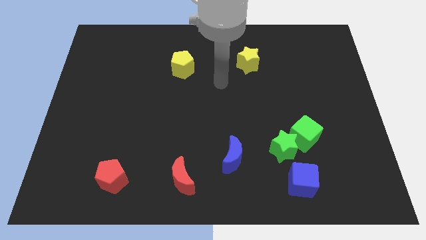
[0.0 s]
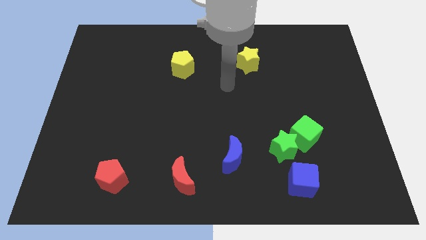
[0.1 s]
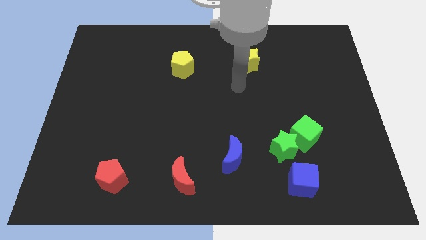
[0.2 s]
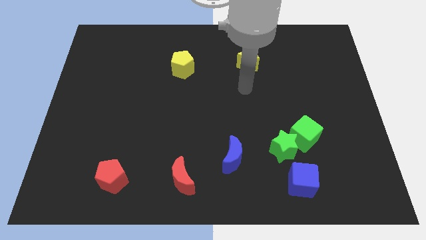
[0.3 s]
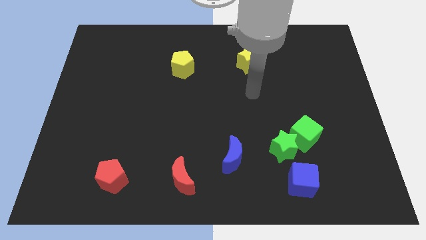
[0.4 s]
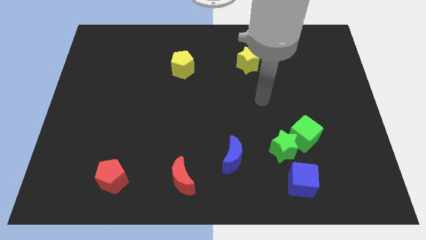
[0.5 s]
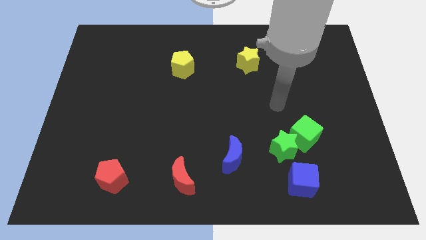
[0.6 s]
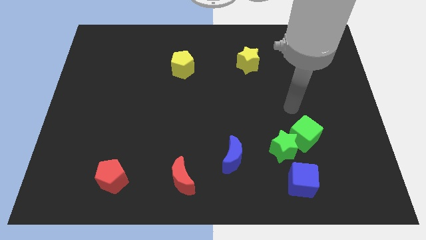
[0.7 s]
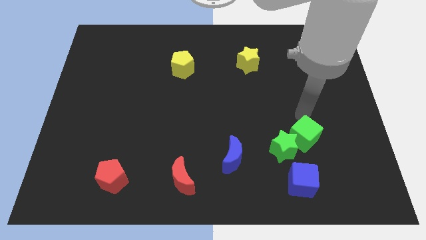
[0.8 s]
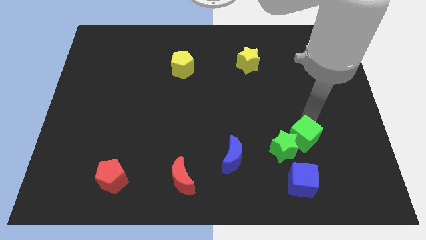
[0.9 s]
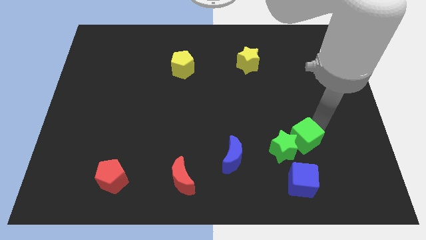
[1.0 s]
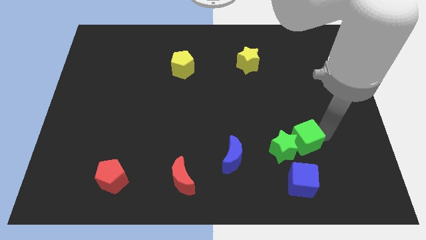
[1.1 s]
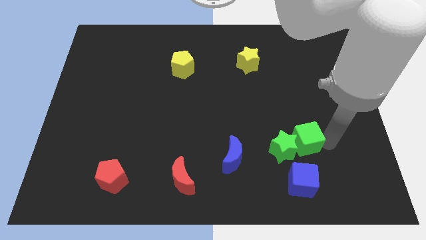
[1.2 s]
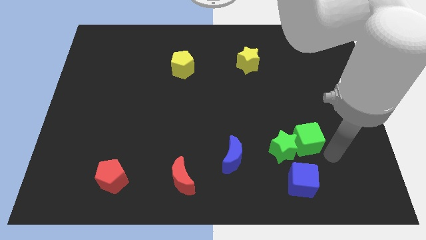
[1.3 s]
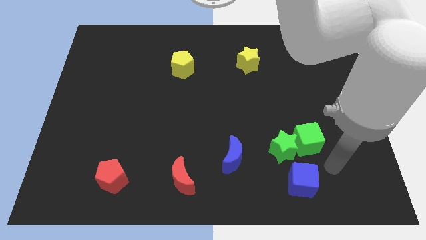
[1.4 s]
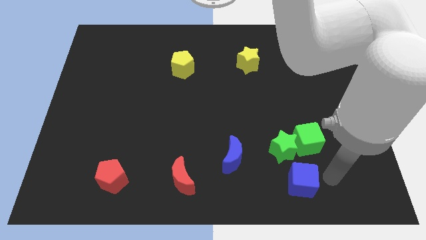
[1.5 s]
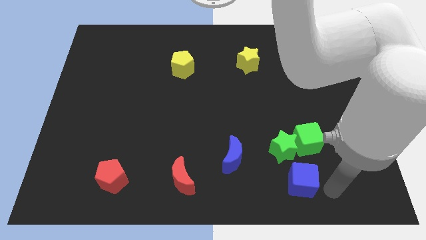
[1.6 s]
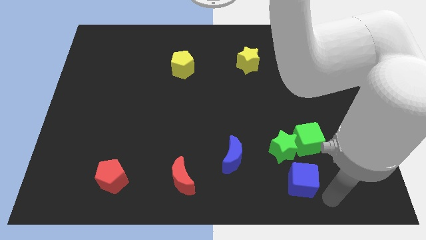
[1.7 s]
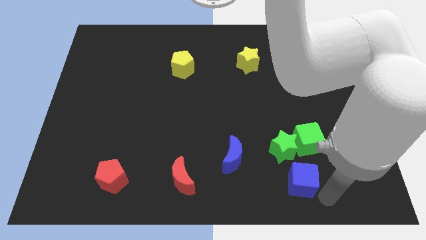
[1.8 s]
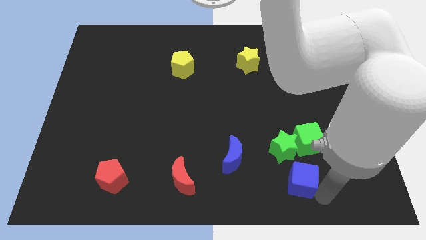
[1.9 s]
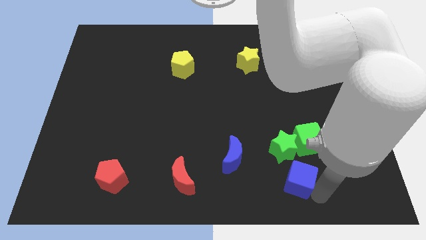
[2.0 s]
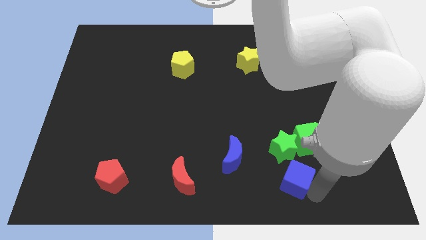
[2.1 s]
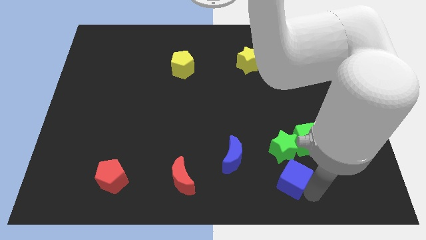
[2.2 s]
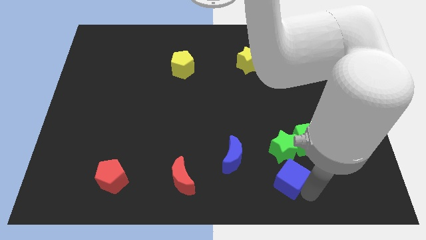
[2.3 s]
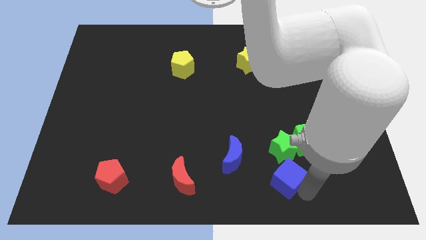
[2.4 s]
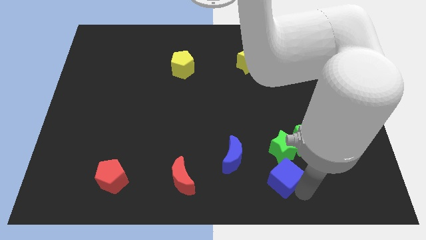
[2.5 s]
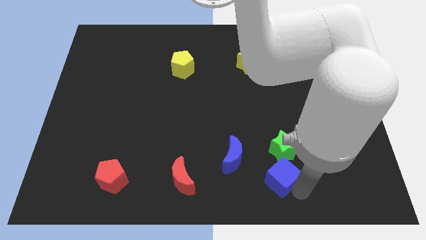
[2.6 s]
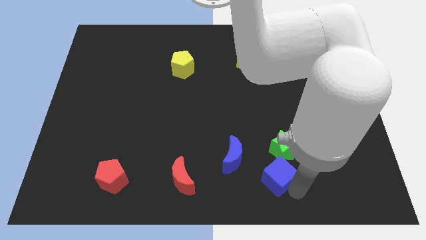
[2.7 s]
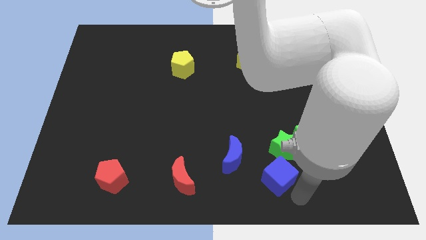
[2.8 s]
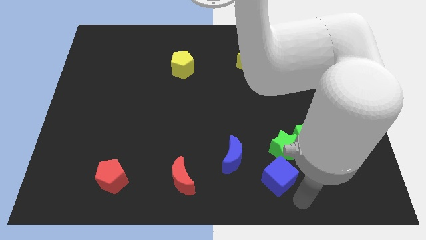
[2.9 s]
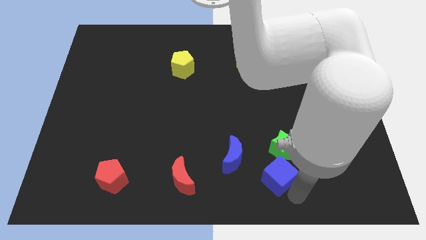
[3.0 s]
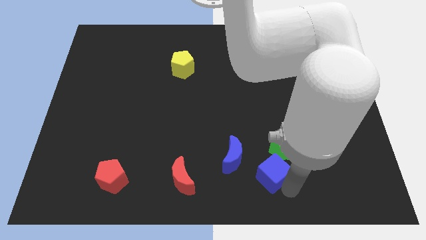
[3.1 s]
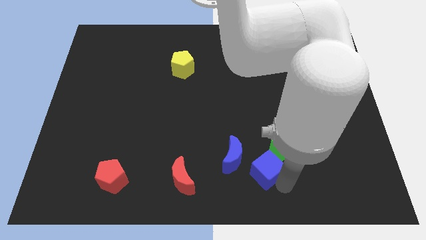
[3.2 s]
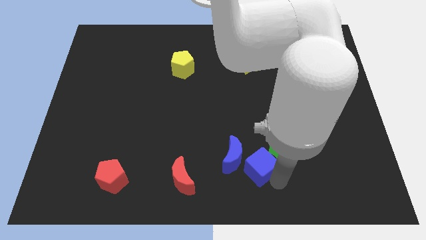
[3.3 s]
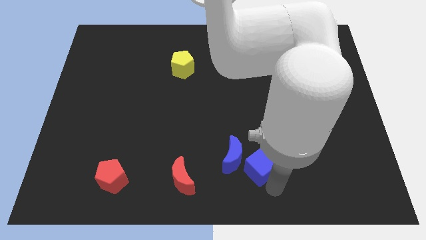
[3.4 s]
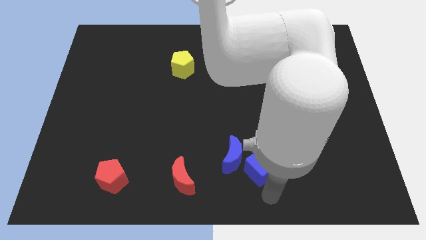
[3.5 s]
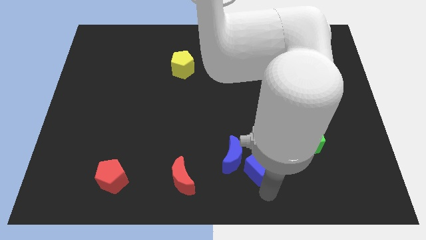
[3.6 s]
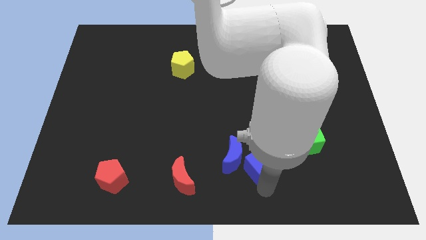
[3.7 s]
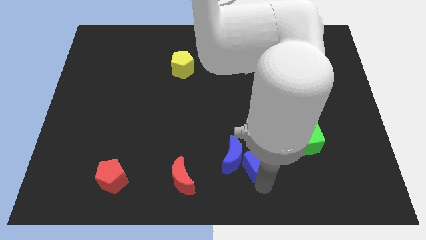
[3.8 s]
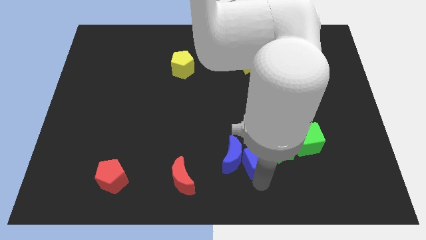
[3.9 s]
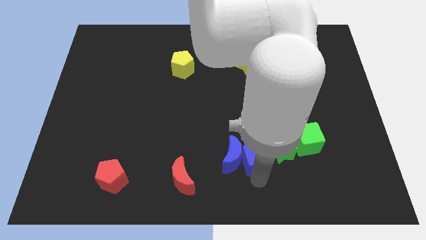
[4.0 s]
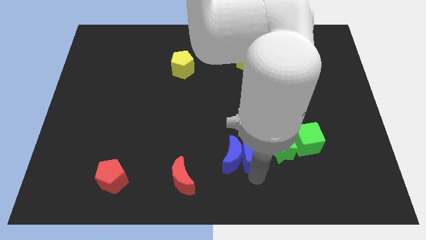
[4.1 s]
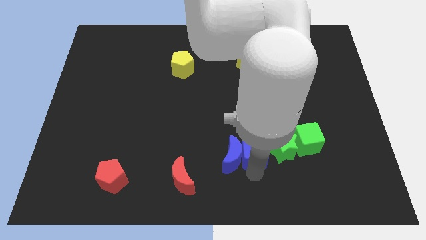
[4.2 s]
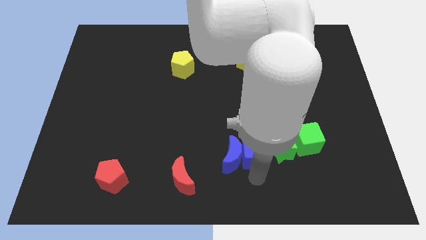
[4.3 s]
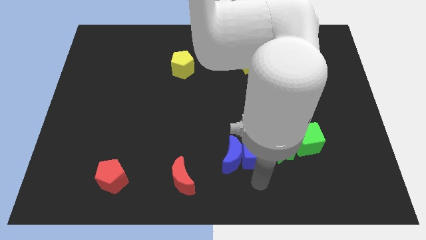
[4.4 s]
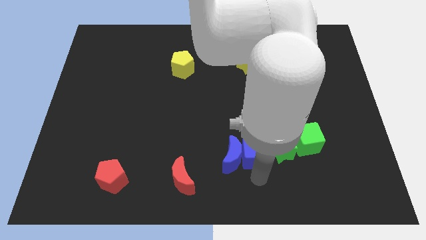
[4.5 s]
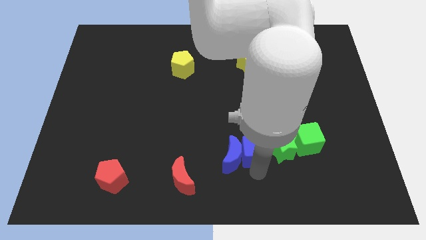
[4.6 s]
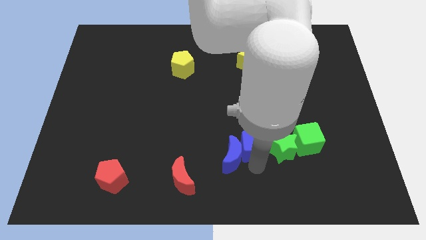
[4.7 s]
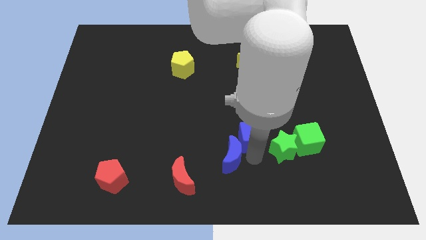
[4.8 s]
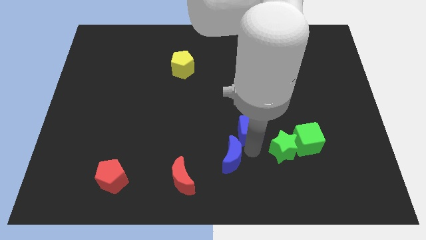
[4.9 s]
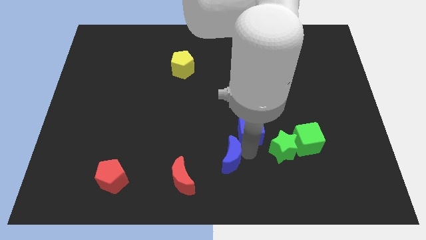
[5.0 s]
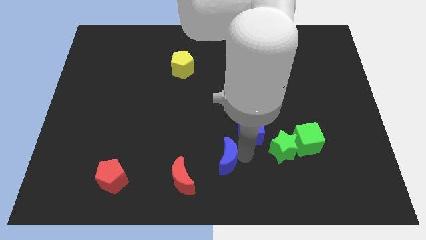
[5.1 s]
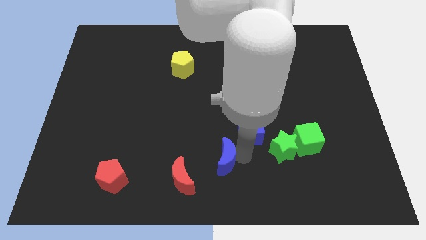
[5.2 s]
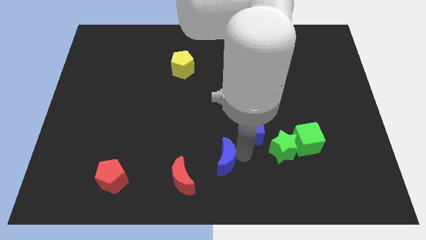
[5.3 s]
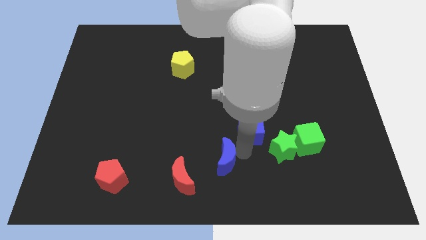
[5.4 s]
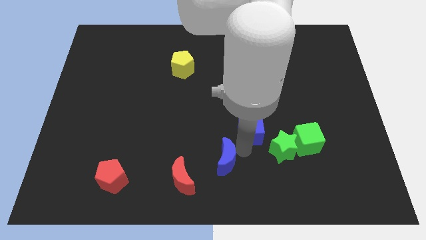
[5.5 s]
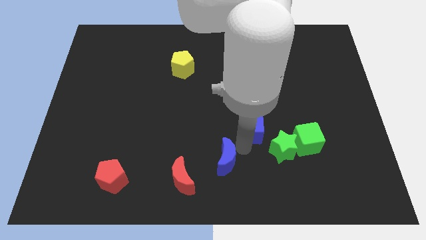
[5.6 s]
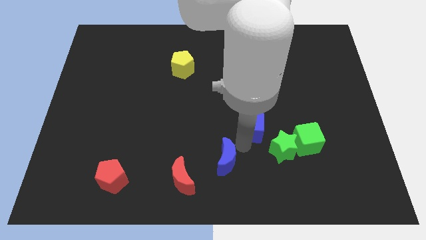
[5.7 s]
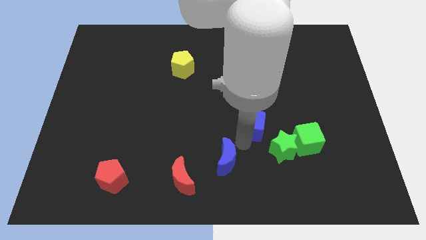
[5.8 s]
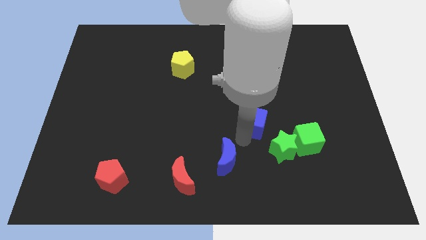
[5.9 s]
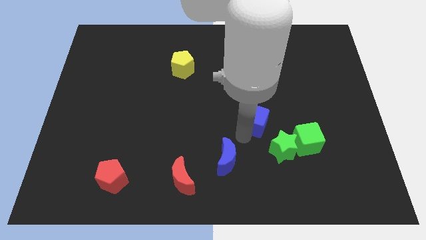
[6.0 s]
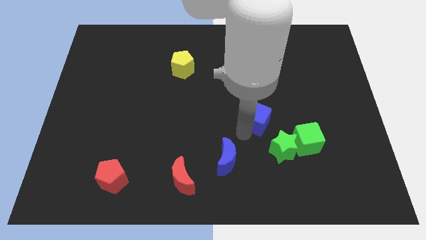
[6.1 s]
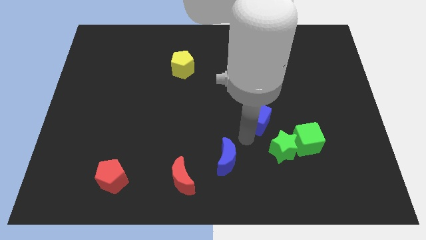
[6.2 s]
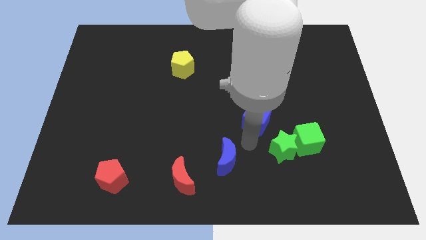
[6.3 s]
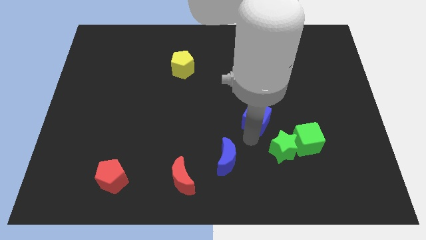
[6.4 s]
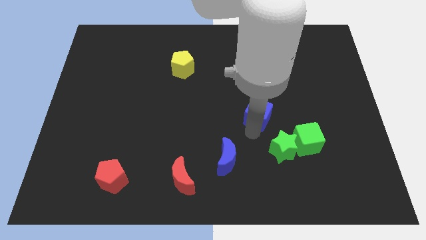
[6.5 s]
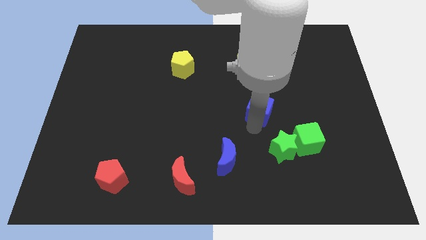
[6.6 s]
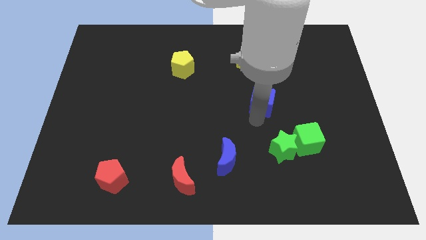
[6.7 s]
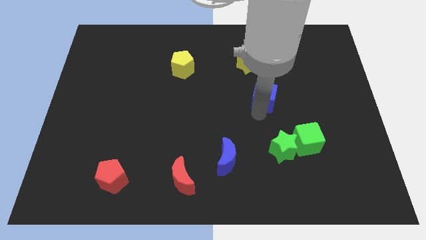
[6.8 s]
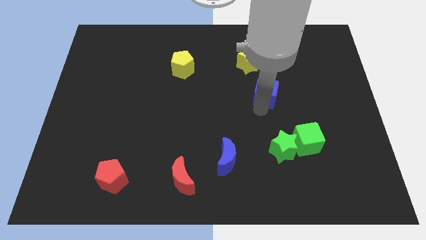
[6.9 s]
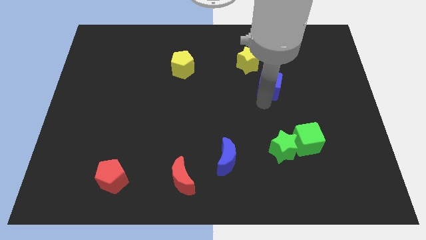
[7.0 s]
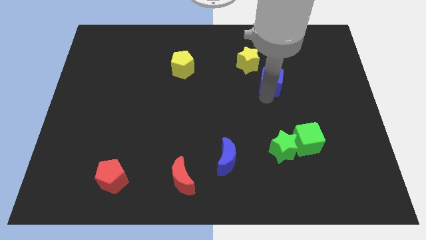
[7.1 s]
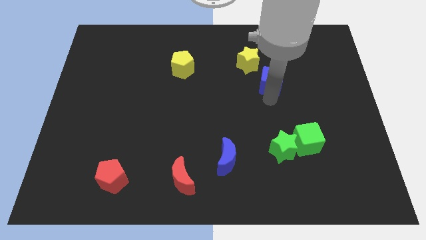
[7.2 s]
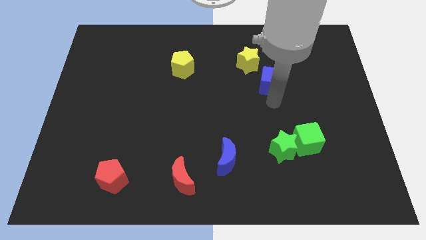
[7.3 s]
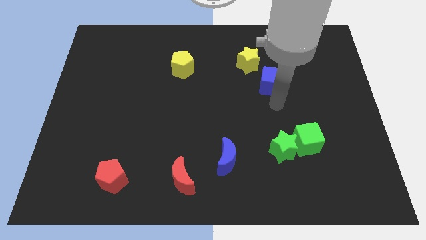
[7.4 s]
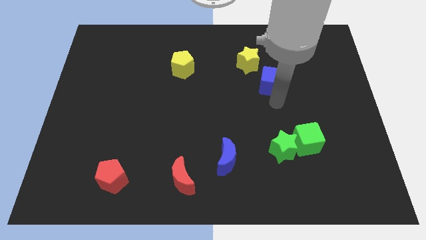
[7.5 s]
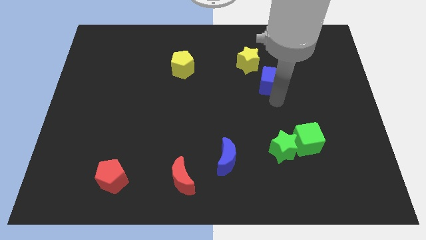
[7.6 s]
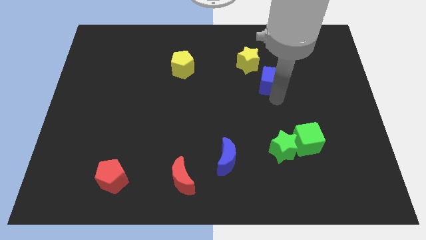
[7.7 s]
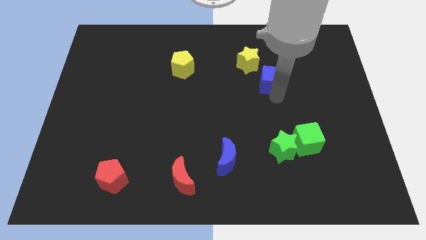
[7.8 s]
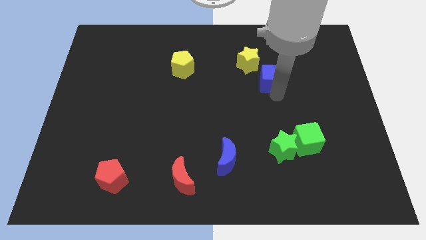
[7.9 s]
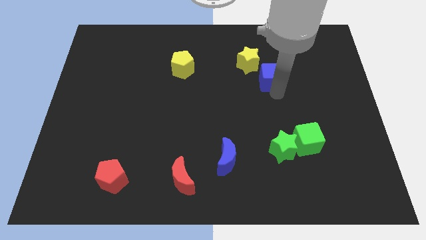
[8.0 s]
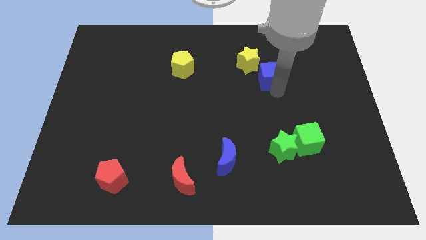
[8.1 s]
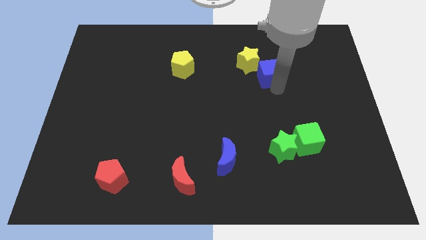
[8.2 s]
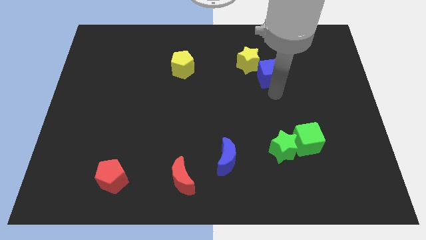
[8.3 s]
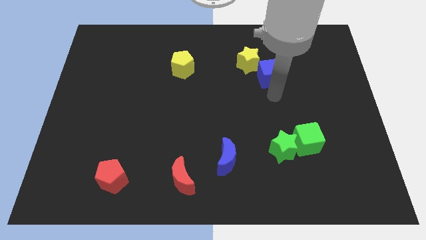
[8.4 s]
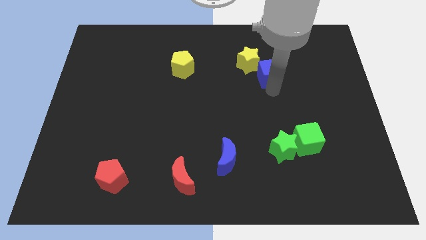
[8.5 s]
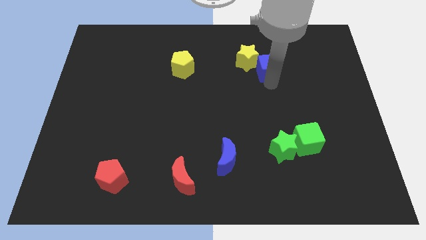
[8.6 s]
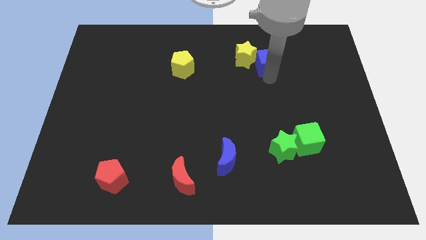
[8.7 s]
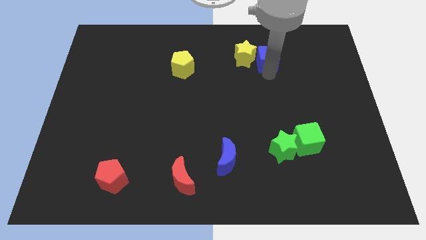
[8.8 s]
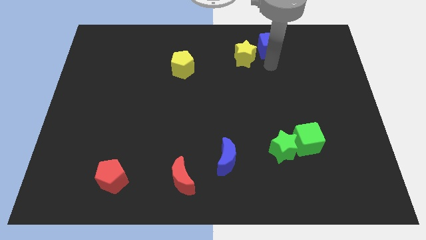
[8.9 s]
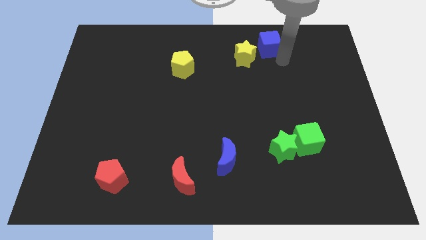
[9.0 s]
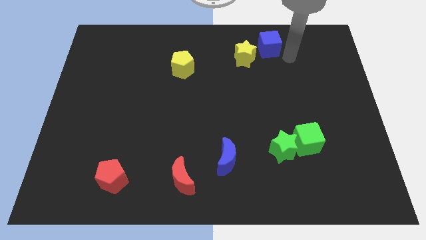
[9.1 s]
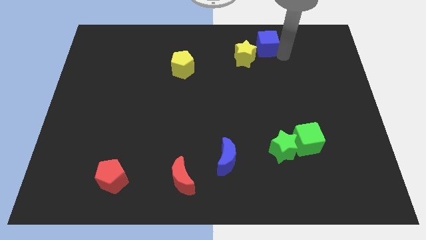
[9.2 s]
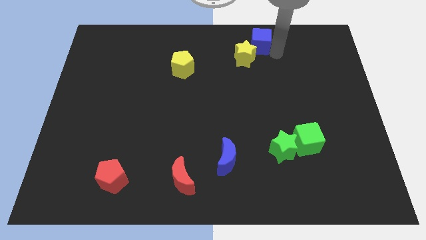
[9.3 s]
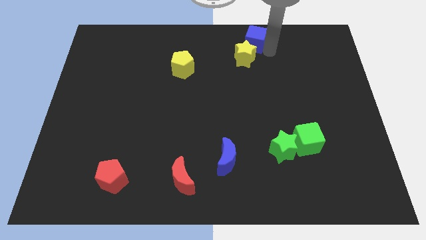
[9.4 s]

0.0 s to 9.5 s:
push the blue cube to the top side
